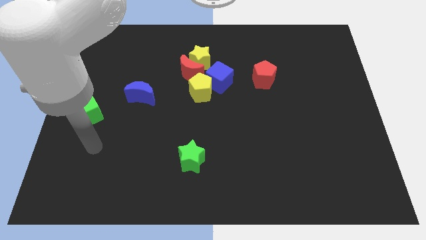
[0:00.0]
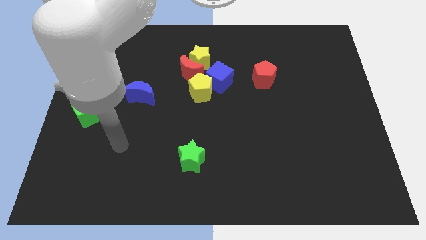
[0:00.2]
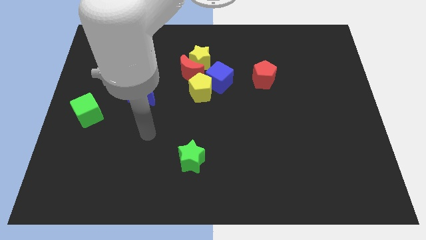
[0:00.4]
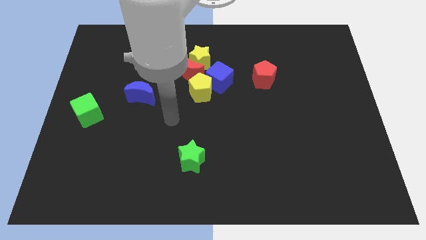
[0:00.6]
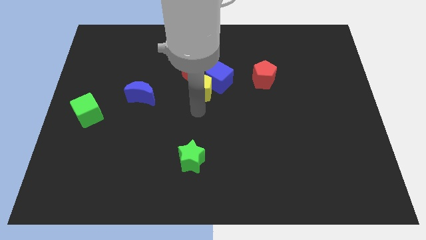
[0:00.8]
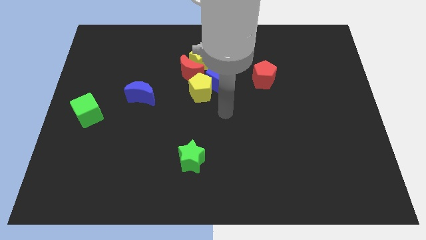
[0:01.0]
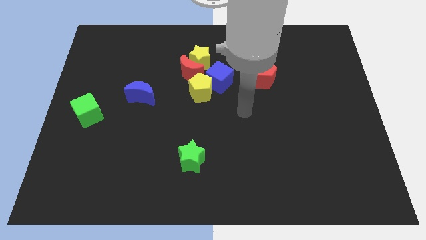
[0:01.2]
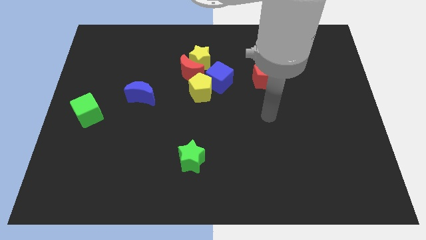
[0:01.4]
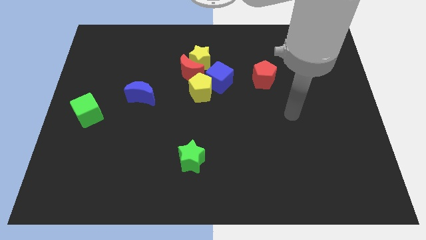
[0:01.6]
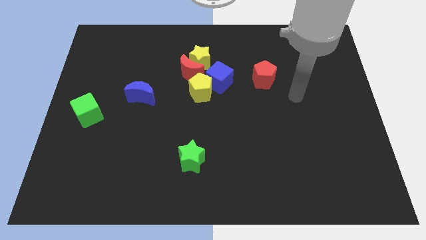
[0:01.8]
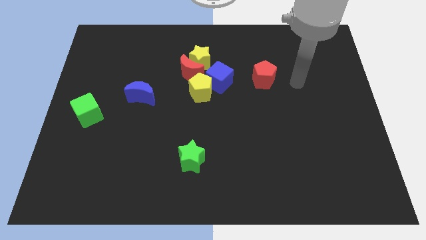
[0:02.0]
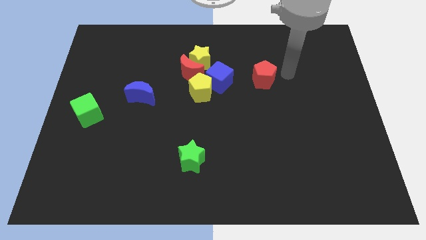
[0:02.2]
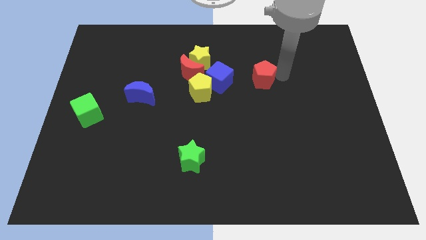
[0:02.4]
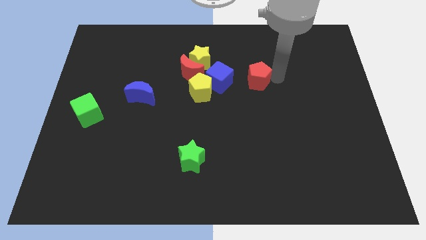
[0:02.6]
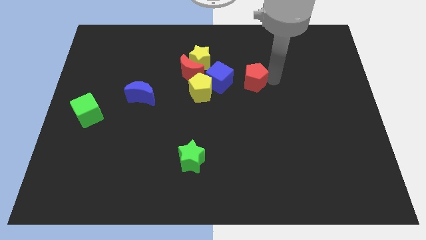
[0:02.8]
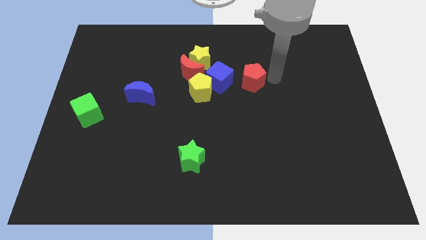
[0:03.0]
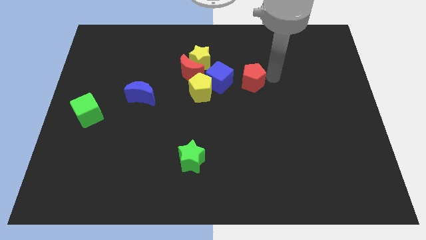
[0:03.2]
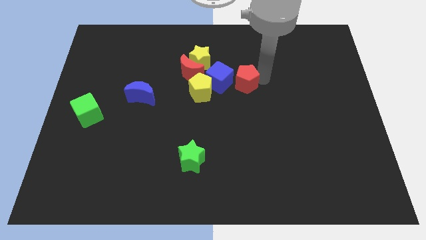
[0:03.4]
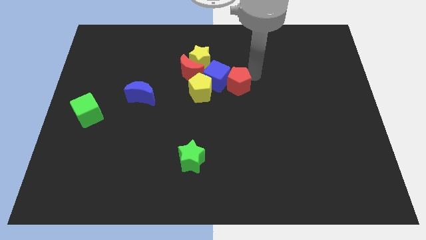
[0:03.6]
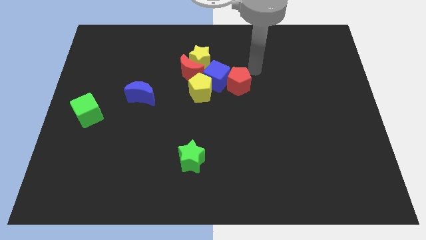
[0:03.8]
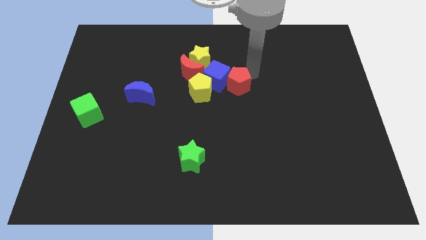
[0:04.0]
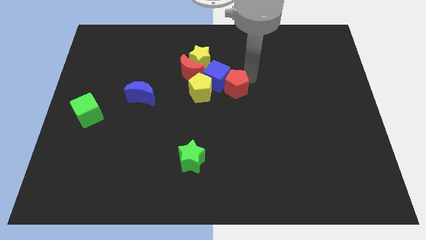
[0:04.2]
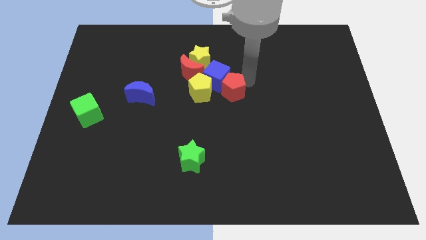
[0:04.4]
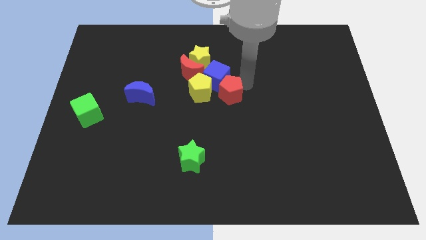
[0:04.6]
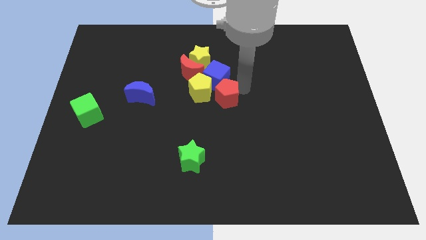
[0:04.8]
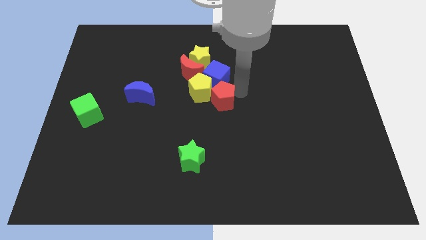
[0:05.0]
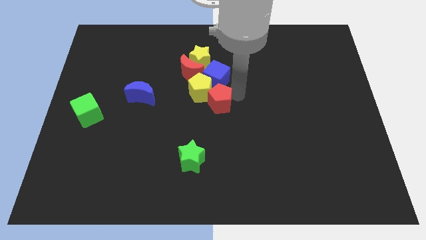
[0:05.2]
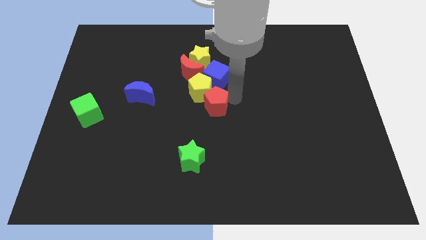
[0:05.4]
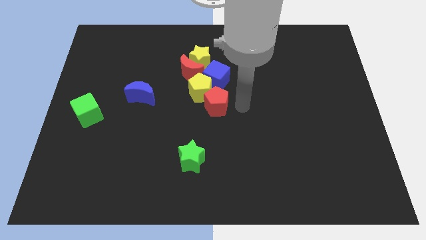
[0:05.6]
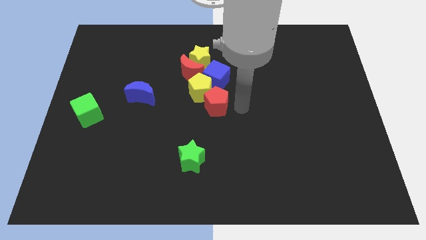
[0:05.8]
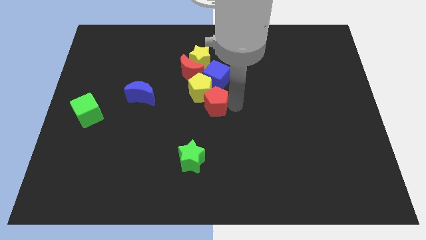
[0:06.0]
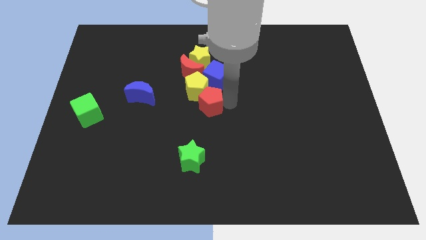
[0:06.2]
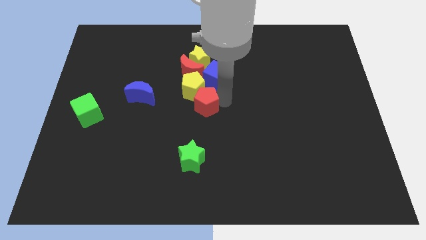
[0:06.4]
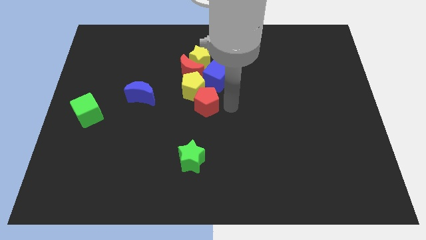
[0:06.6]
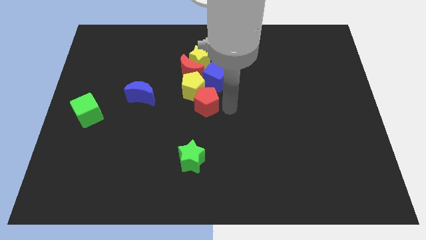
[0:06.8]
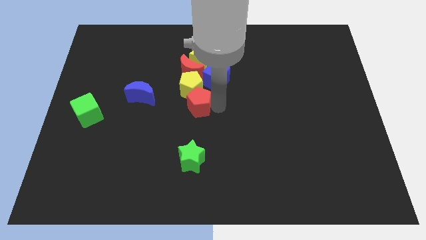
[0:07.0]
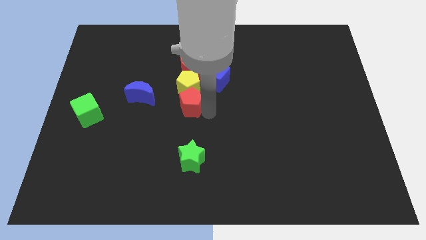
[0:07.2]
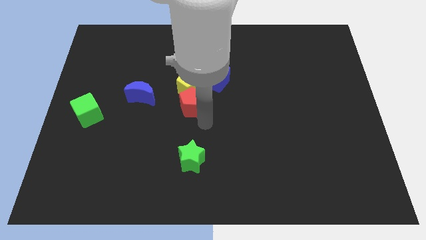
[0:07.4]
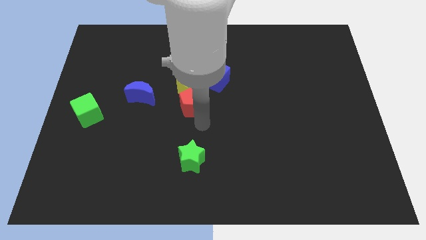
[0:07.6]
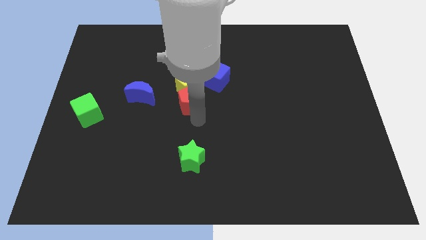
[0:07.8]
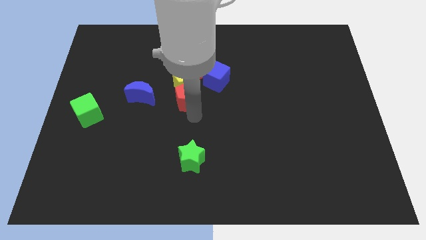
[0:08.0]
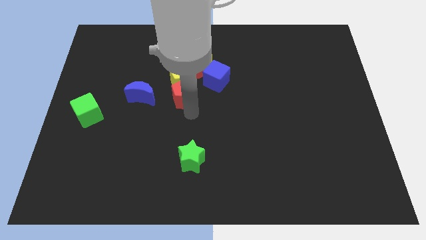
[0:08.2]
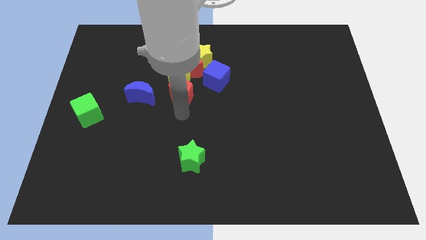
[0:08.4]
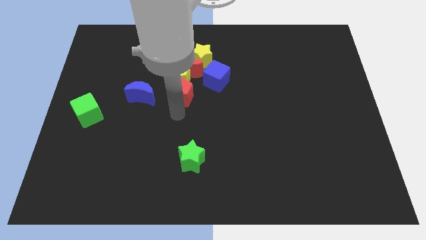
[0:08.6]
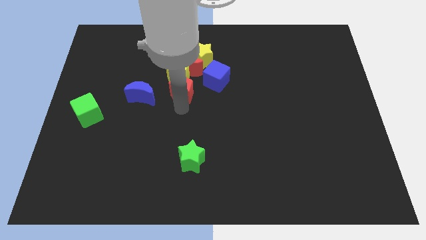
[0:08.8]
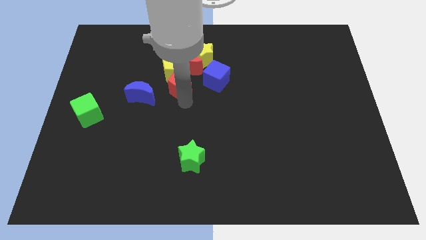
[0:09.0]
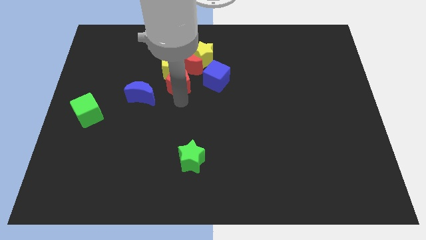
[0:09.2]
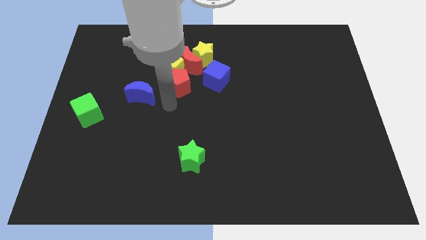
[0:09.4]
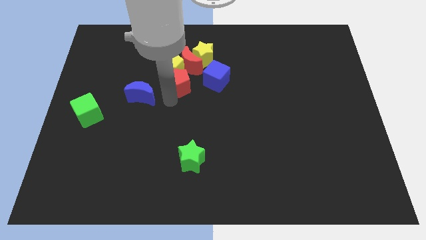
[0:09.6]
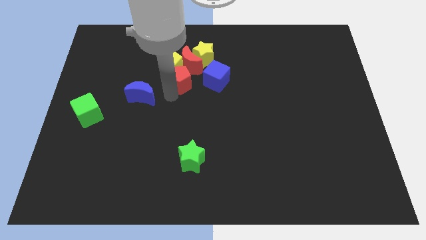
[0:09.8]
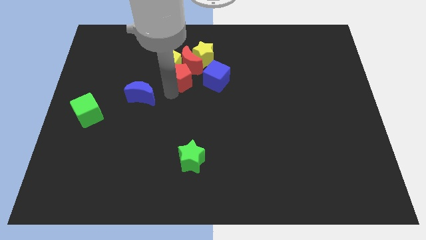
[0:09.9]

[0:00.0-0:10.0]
put the red pentagon close to the red moon

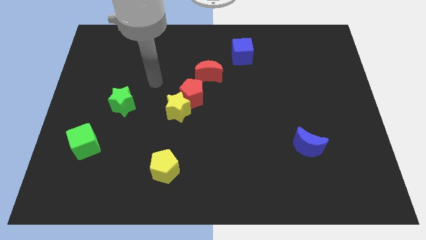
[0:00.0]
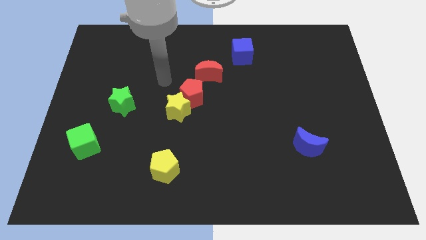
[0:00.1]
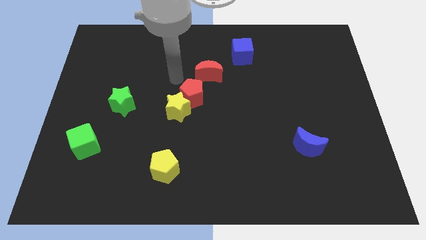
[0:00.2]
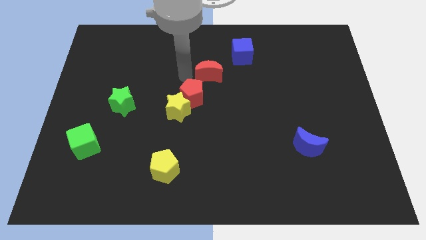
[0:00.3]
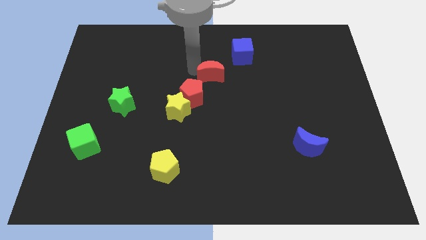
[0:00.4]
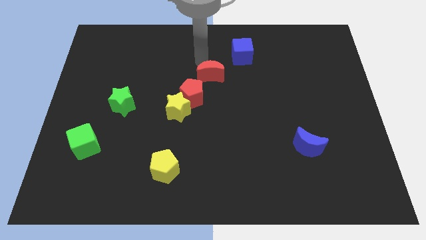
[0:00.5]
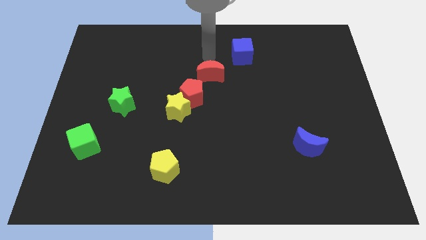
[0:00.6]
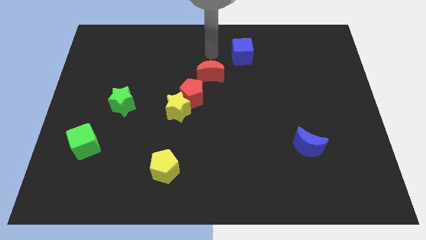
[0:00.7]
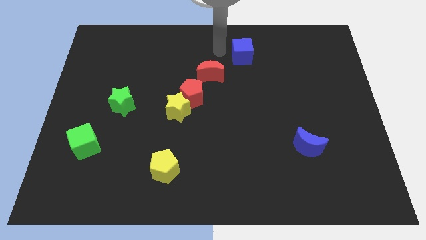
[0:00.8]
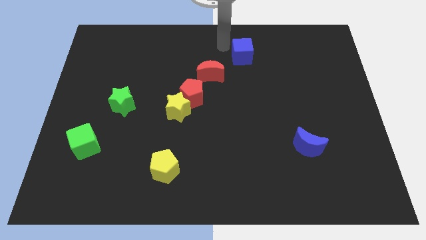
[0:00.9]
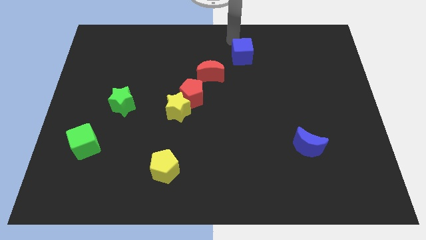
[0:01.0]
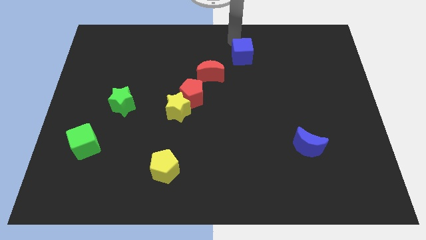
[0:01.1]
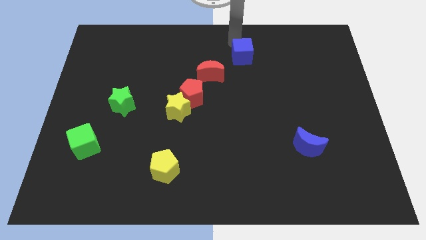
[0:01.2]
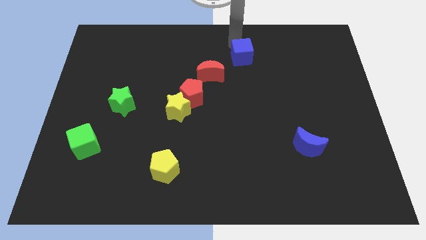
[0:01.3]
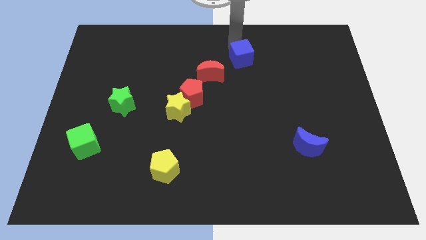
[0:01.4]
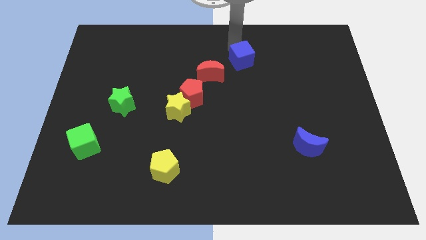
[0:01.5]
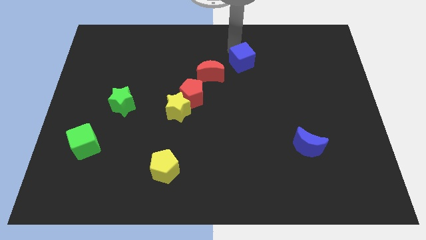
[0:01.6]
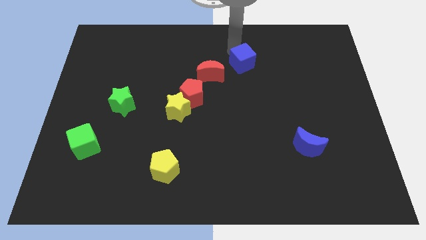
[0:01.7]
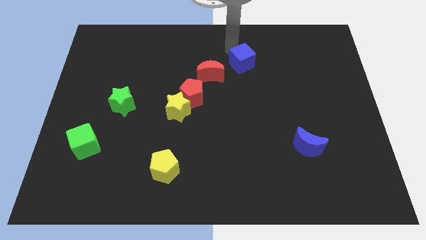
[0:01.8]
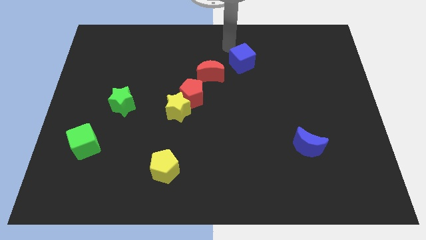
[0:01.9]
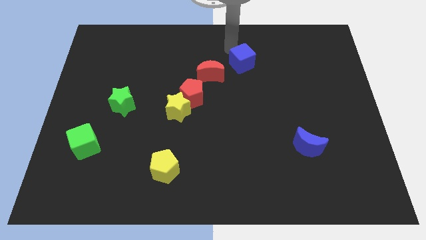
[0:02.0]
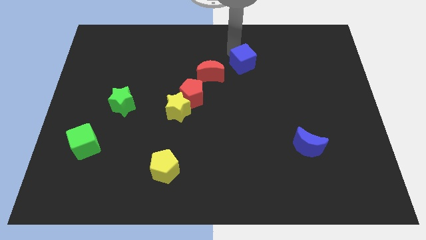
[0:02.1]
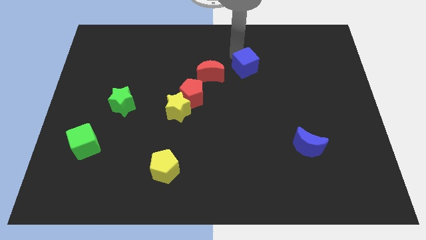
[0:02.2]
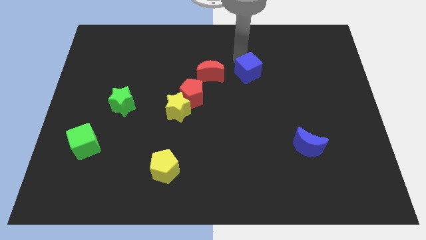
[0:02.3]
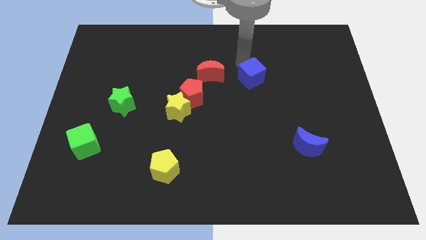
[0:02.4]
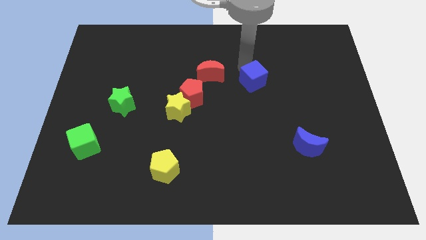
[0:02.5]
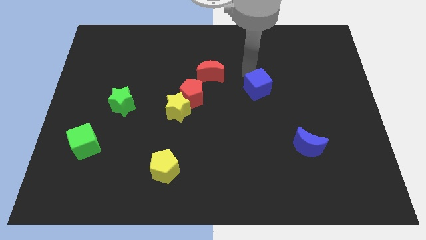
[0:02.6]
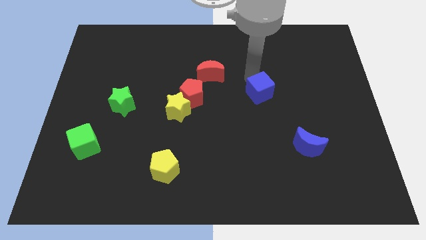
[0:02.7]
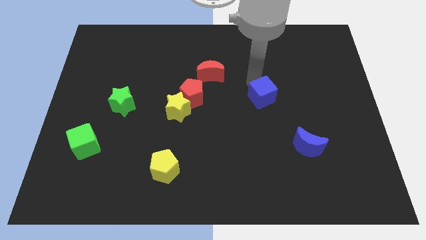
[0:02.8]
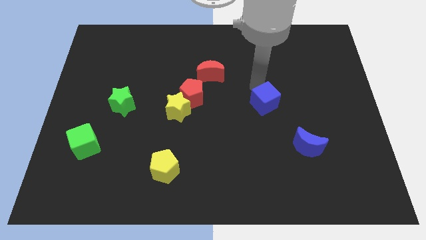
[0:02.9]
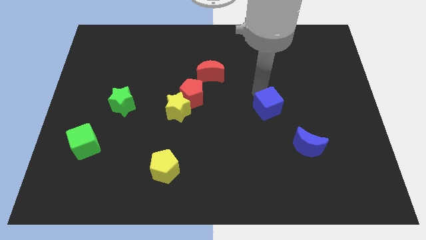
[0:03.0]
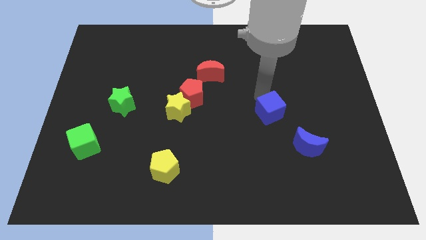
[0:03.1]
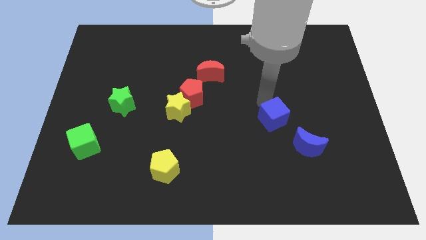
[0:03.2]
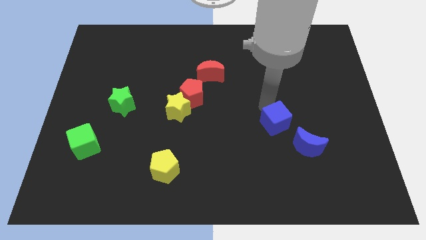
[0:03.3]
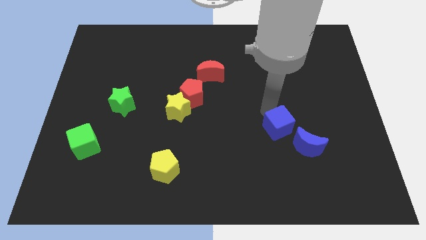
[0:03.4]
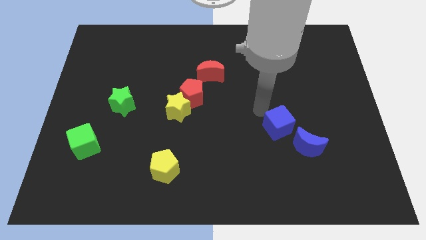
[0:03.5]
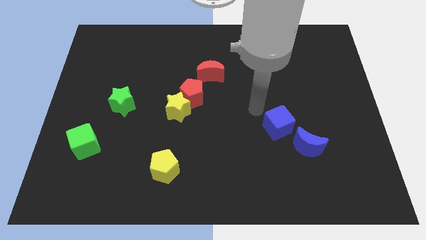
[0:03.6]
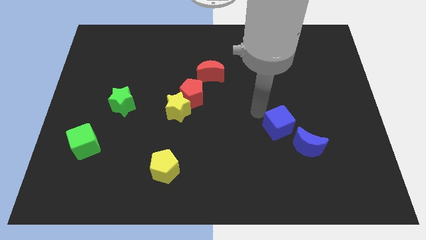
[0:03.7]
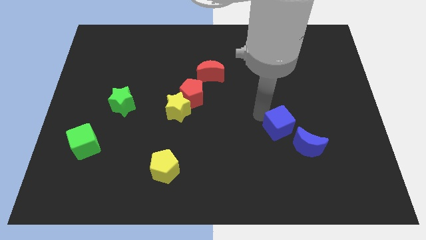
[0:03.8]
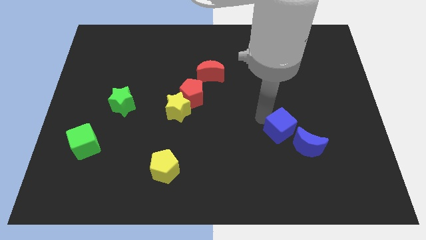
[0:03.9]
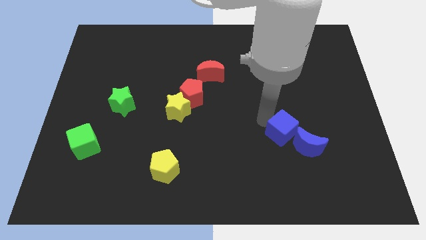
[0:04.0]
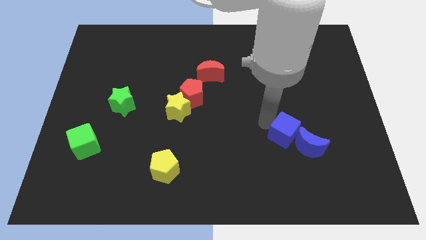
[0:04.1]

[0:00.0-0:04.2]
slide the blue cube close to the blue moon
